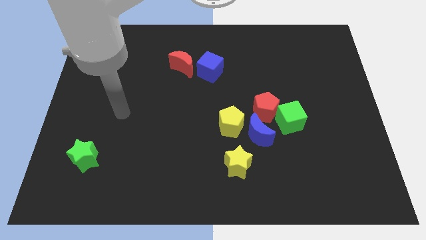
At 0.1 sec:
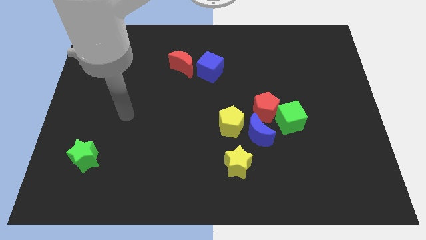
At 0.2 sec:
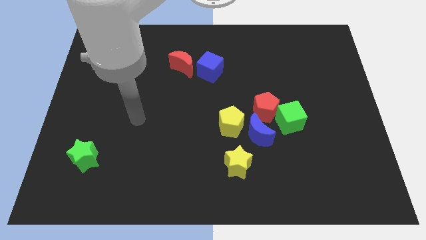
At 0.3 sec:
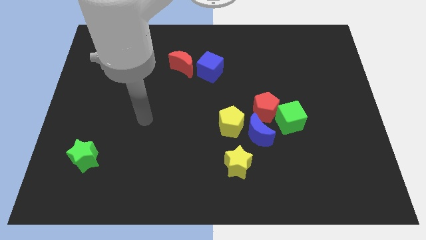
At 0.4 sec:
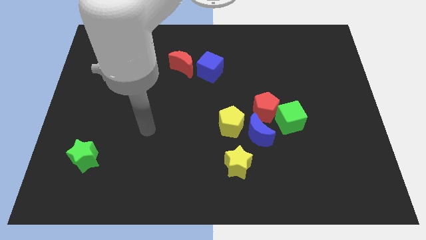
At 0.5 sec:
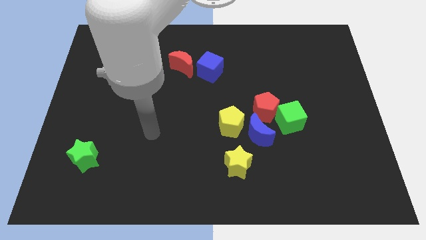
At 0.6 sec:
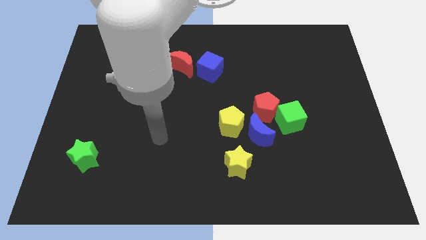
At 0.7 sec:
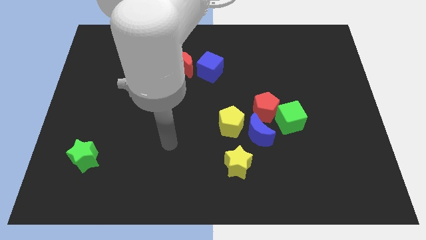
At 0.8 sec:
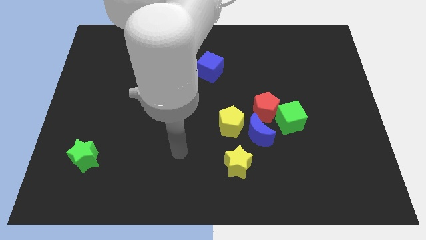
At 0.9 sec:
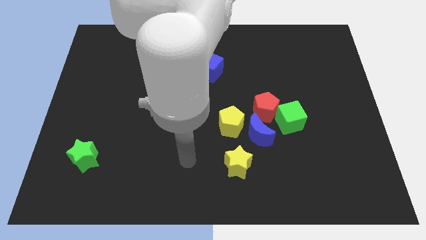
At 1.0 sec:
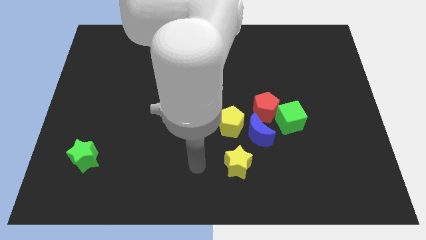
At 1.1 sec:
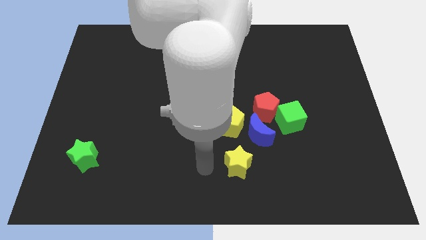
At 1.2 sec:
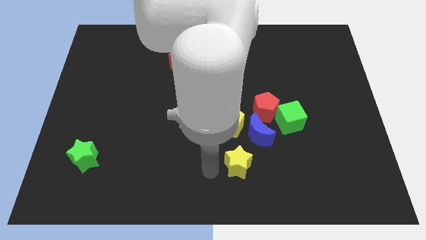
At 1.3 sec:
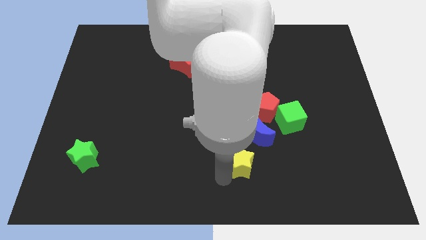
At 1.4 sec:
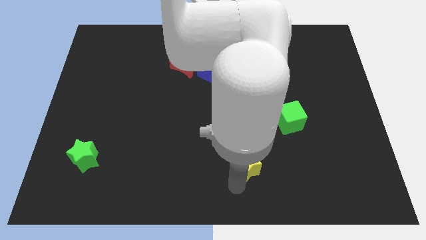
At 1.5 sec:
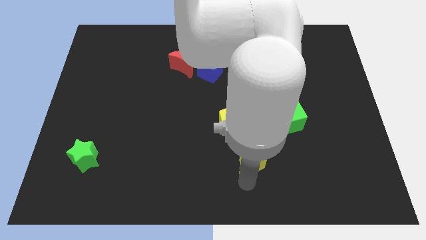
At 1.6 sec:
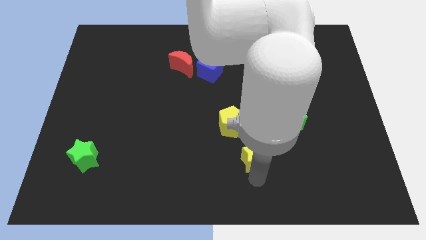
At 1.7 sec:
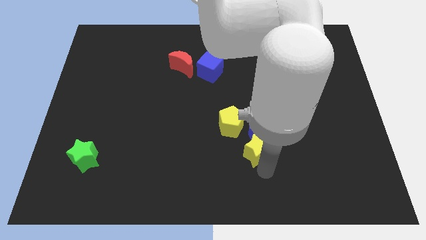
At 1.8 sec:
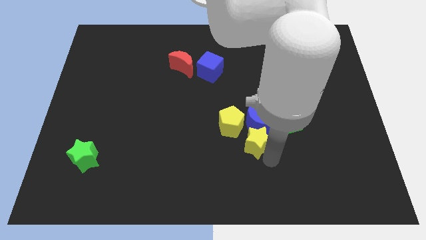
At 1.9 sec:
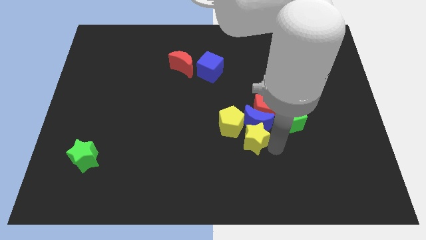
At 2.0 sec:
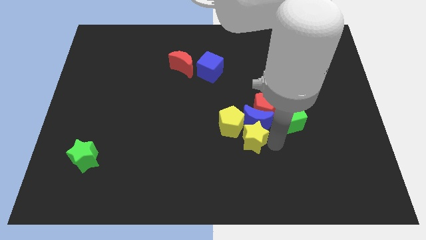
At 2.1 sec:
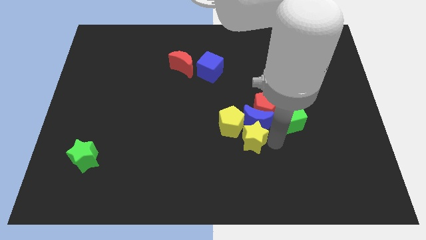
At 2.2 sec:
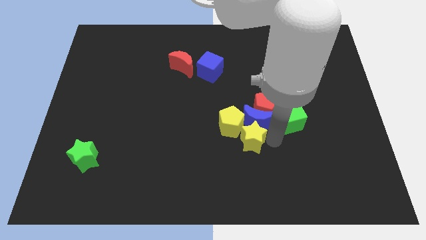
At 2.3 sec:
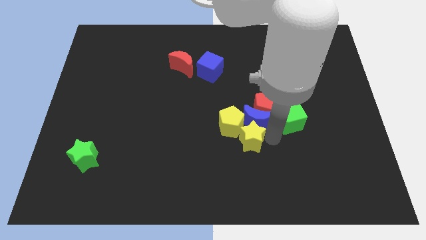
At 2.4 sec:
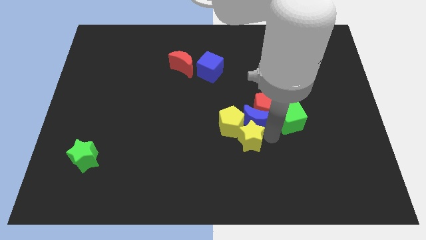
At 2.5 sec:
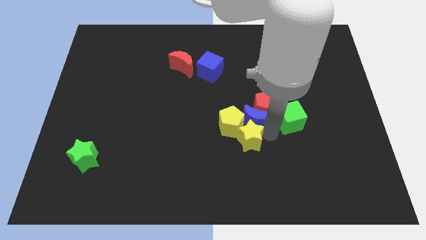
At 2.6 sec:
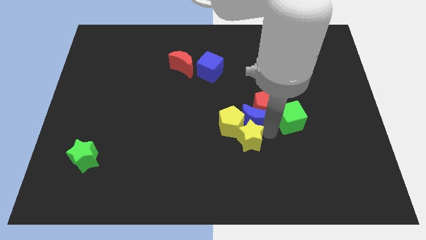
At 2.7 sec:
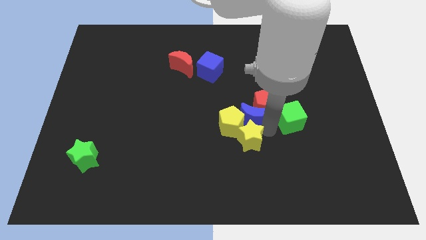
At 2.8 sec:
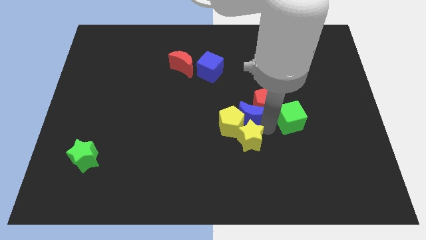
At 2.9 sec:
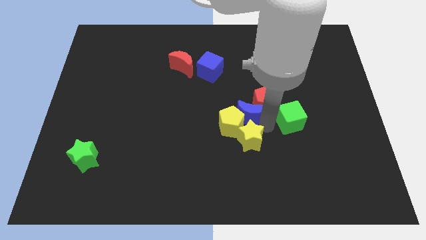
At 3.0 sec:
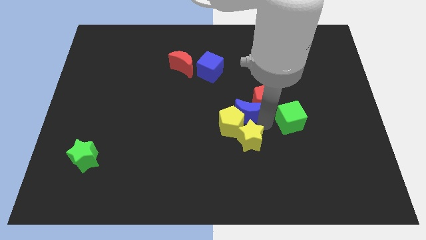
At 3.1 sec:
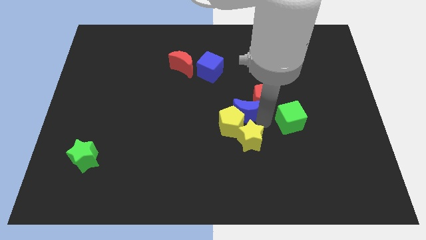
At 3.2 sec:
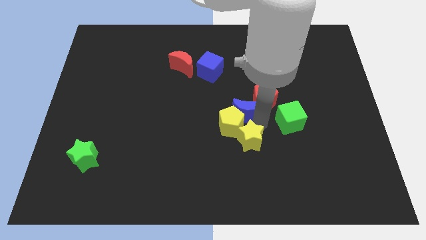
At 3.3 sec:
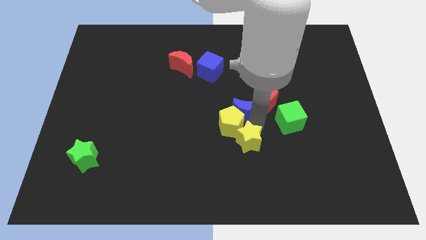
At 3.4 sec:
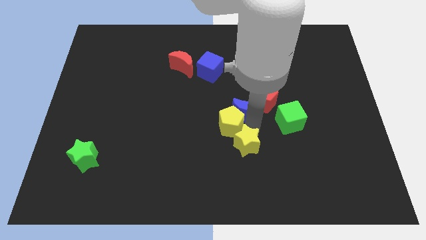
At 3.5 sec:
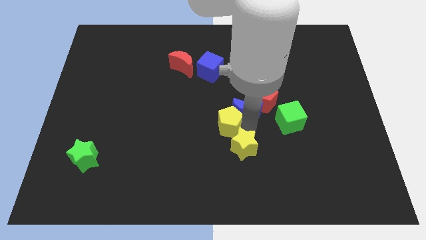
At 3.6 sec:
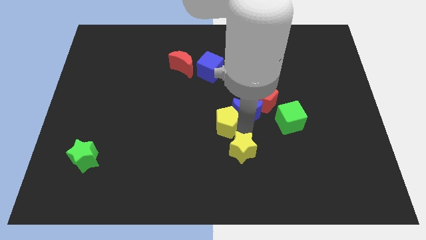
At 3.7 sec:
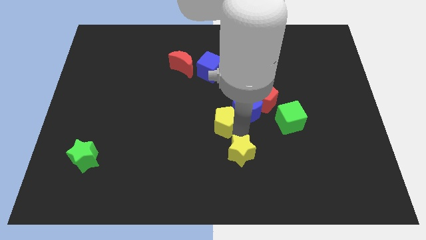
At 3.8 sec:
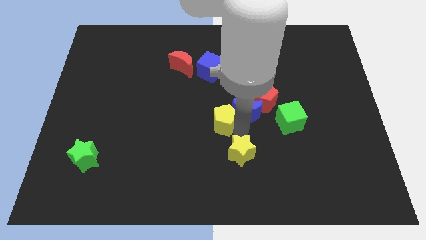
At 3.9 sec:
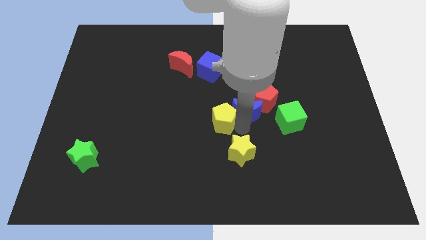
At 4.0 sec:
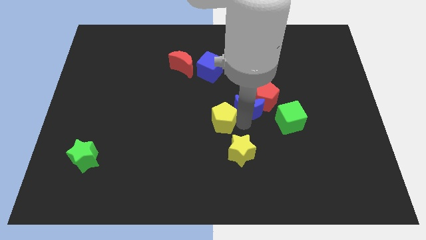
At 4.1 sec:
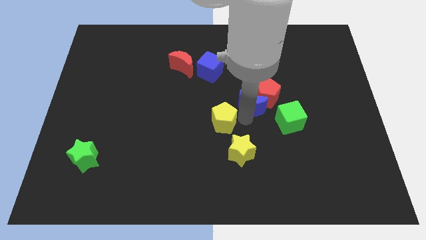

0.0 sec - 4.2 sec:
slide the blue moon upwards a little bit

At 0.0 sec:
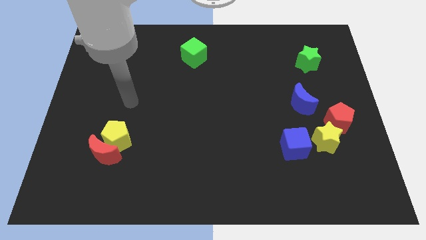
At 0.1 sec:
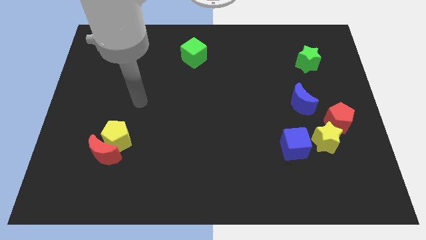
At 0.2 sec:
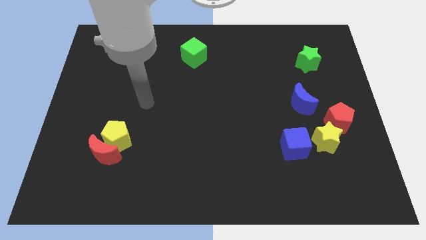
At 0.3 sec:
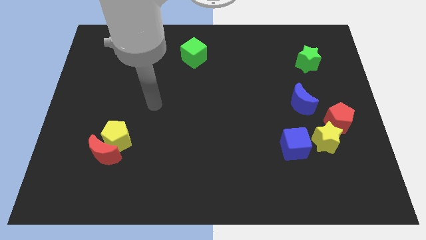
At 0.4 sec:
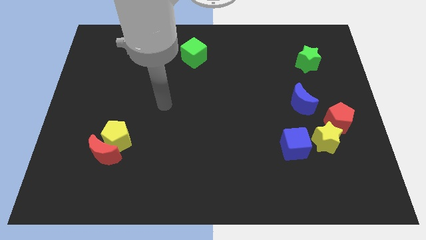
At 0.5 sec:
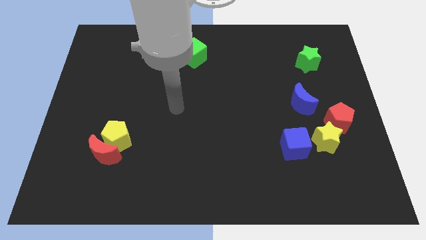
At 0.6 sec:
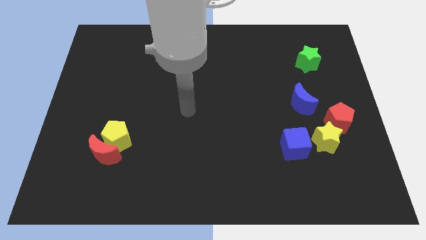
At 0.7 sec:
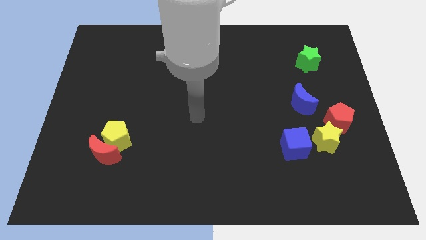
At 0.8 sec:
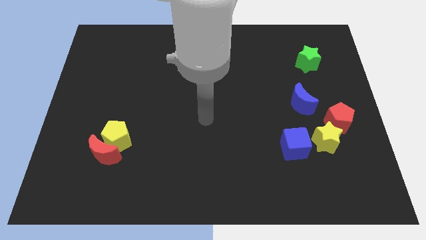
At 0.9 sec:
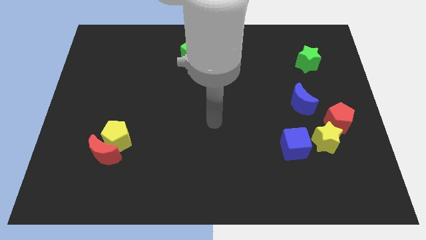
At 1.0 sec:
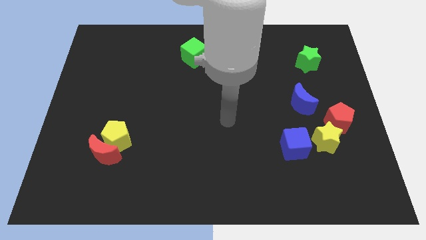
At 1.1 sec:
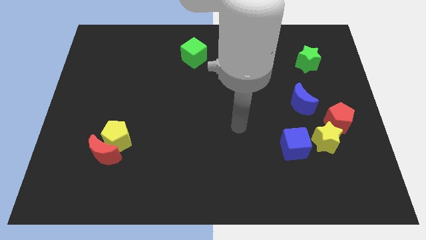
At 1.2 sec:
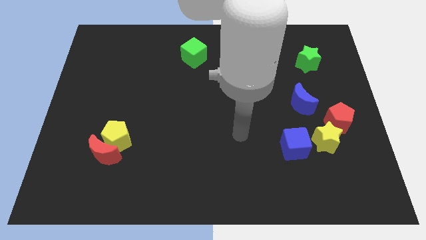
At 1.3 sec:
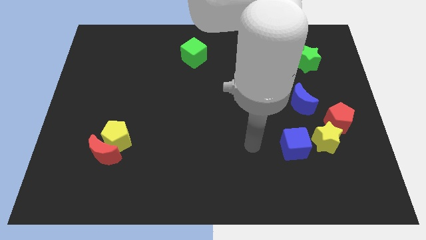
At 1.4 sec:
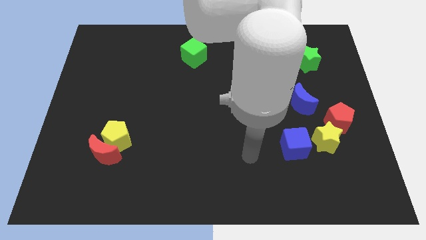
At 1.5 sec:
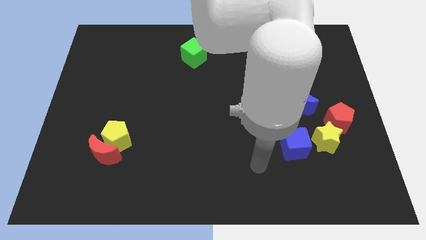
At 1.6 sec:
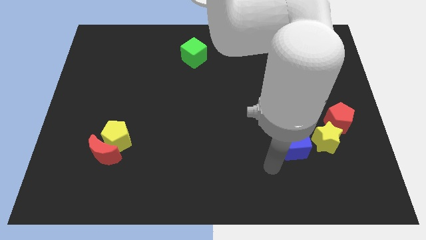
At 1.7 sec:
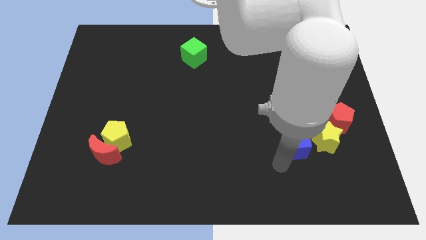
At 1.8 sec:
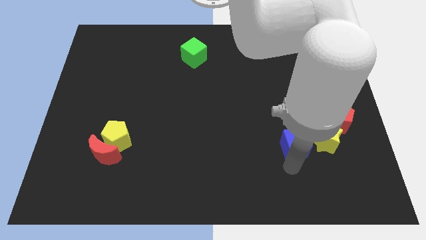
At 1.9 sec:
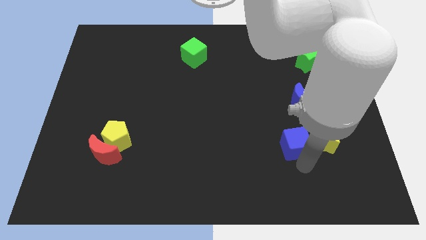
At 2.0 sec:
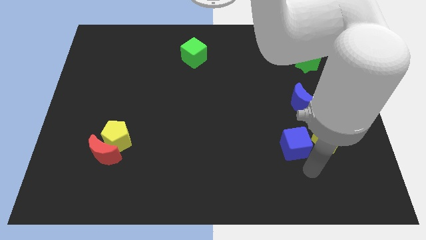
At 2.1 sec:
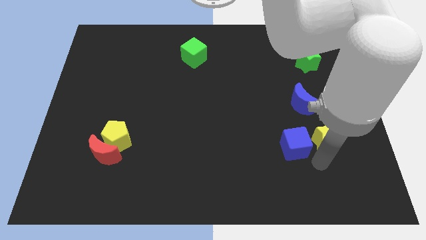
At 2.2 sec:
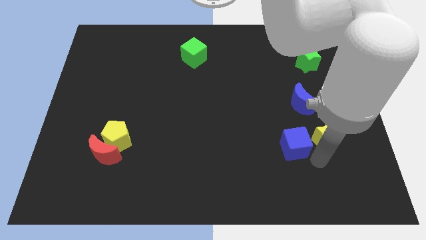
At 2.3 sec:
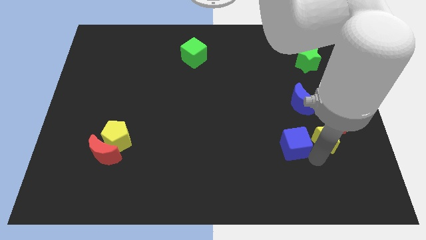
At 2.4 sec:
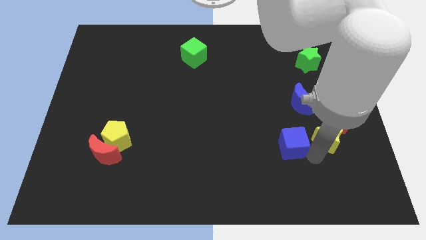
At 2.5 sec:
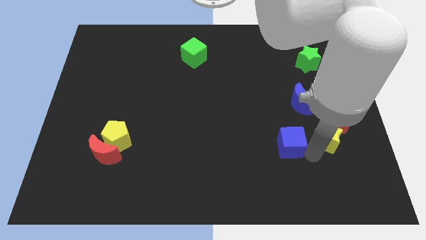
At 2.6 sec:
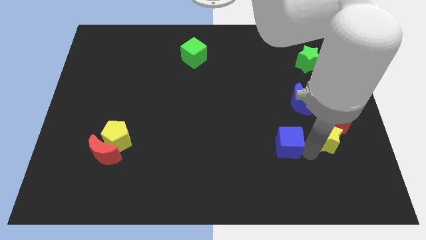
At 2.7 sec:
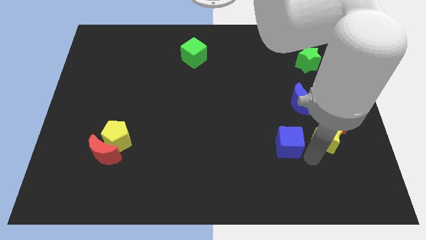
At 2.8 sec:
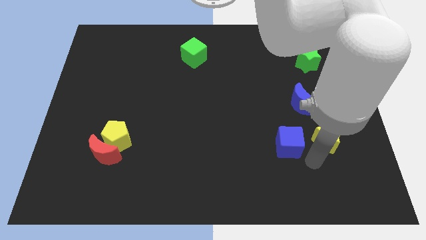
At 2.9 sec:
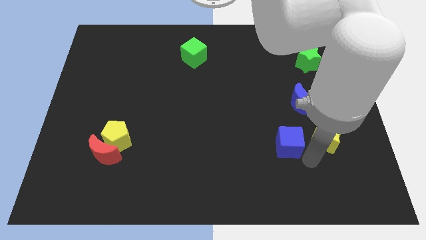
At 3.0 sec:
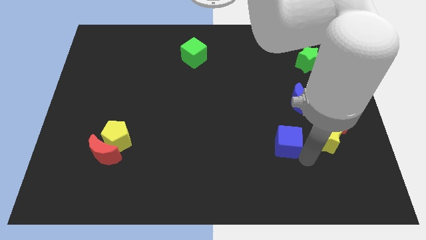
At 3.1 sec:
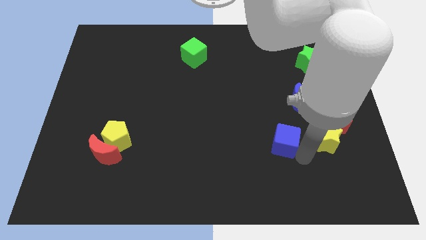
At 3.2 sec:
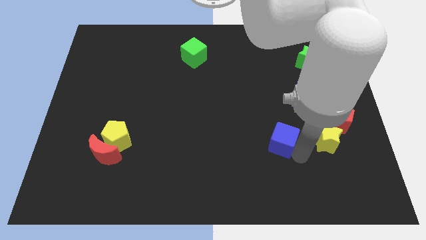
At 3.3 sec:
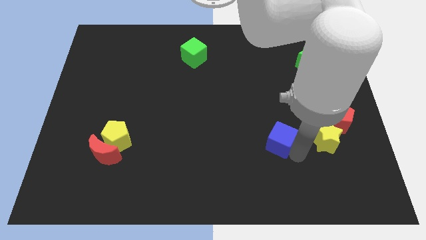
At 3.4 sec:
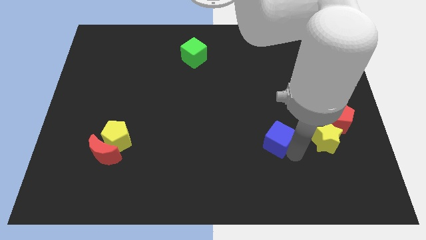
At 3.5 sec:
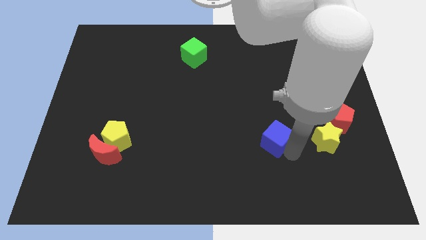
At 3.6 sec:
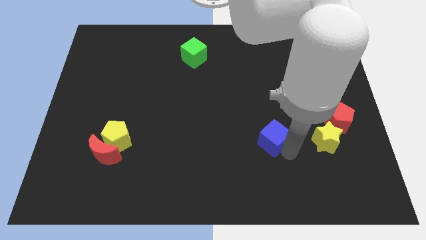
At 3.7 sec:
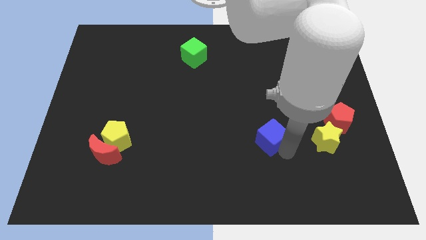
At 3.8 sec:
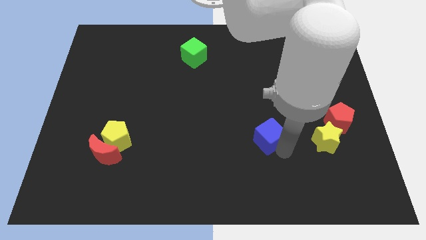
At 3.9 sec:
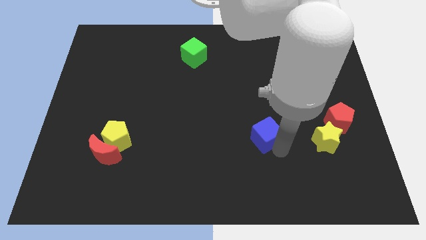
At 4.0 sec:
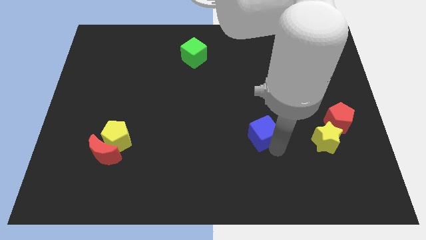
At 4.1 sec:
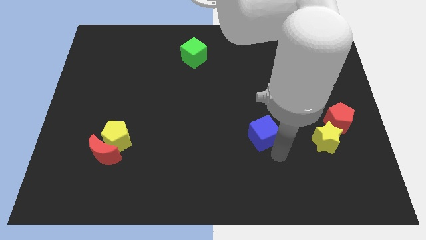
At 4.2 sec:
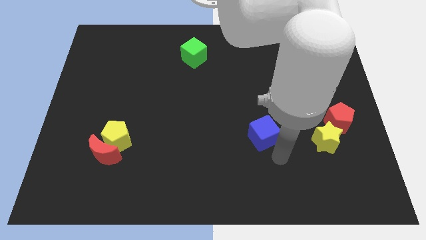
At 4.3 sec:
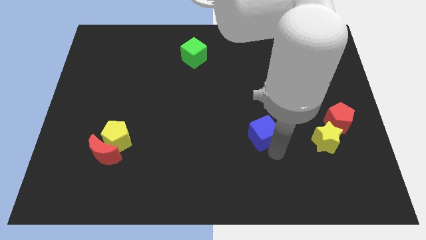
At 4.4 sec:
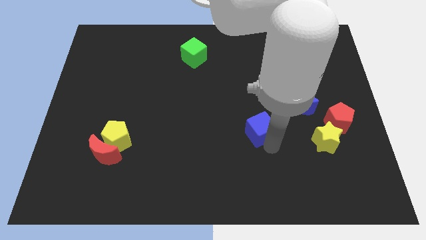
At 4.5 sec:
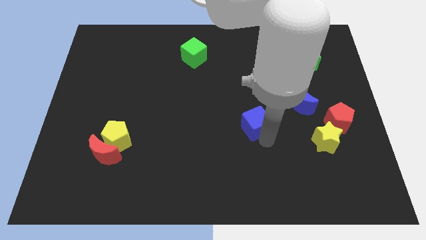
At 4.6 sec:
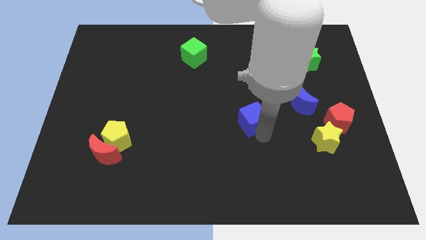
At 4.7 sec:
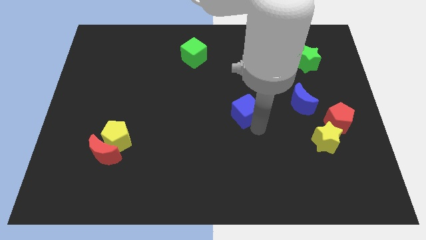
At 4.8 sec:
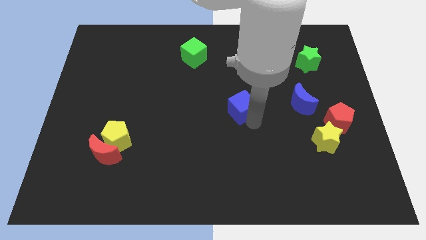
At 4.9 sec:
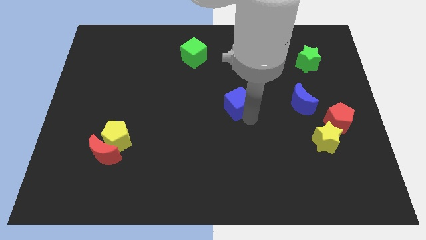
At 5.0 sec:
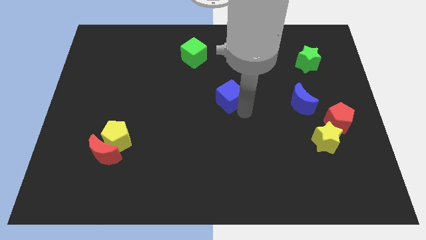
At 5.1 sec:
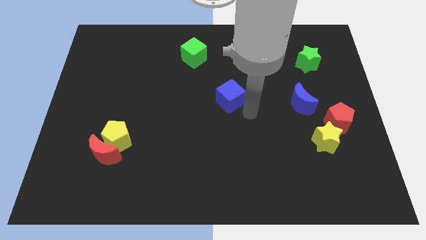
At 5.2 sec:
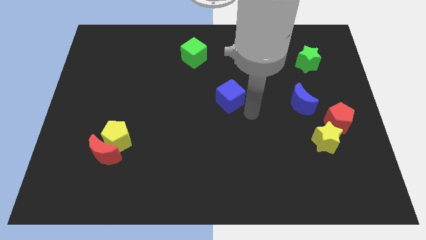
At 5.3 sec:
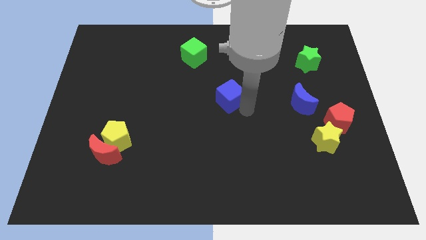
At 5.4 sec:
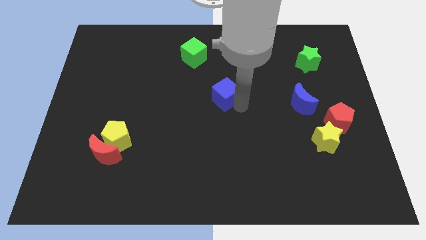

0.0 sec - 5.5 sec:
move the blue cube upwards and to the left
